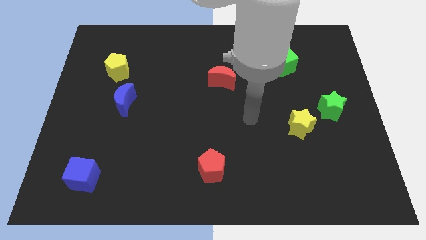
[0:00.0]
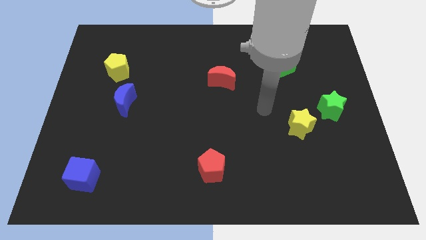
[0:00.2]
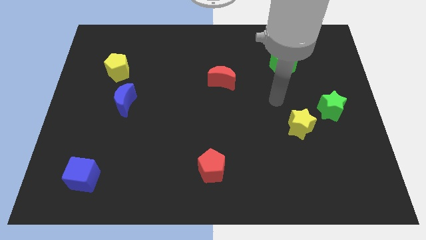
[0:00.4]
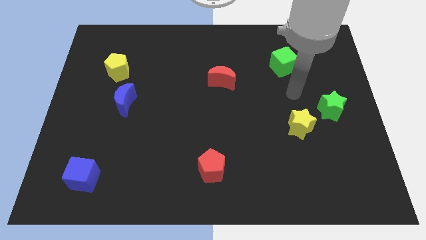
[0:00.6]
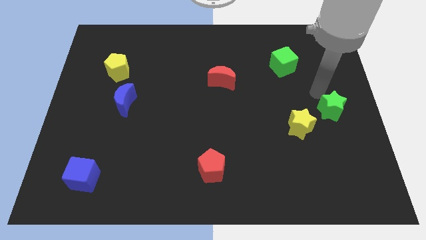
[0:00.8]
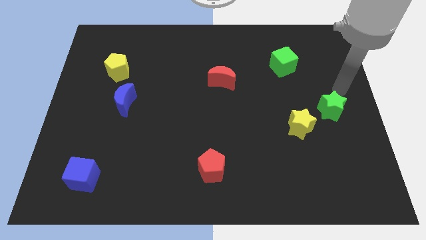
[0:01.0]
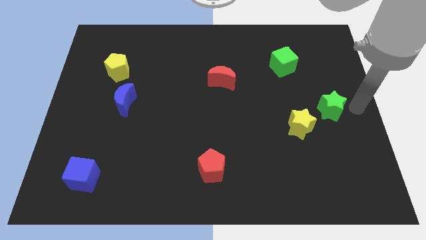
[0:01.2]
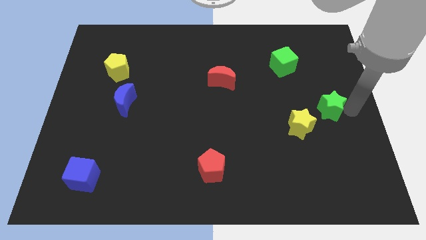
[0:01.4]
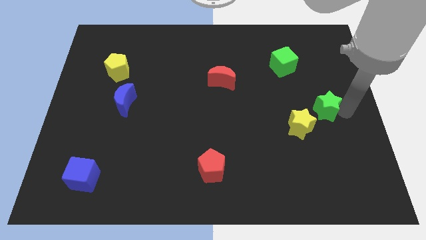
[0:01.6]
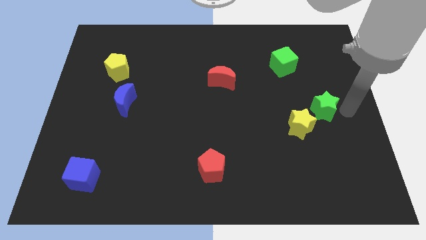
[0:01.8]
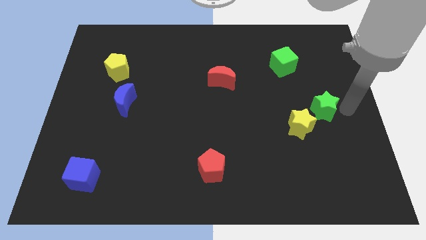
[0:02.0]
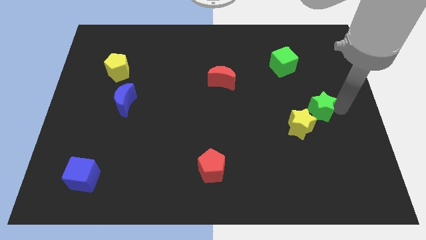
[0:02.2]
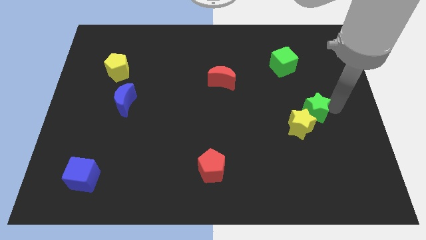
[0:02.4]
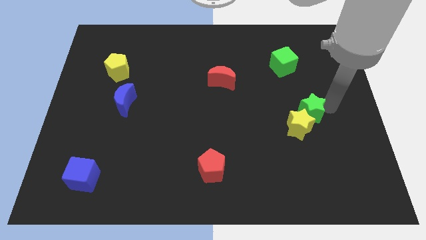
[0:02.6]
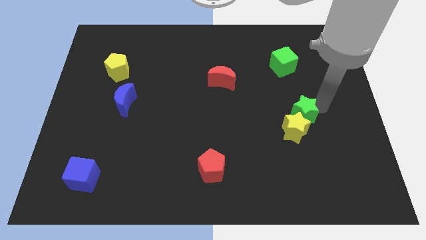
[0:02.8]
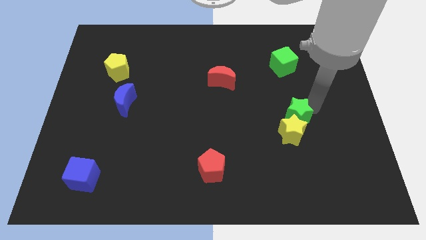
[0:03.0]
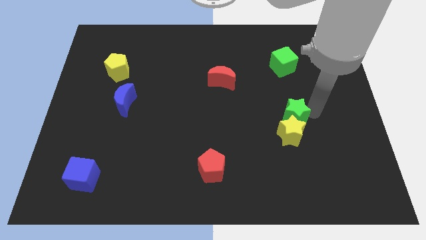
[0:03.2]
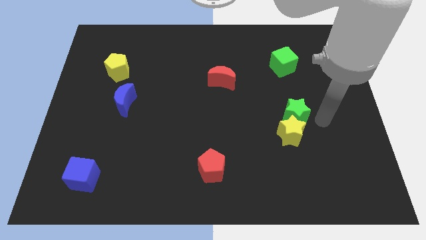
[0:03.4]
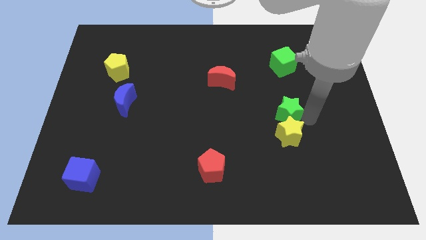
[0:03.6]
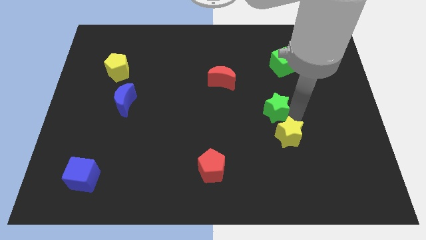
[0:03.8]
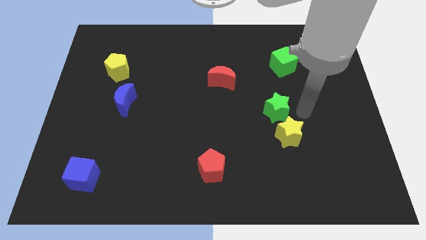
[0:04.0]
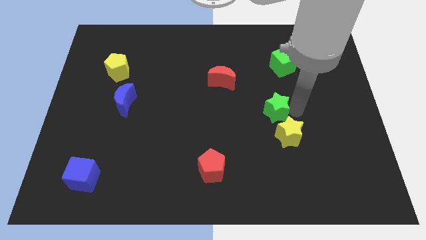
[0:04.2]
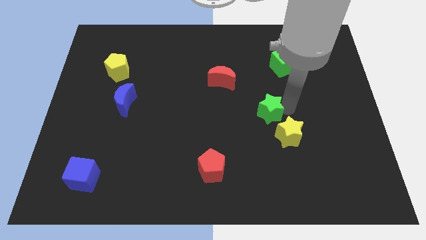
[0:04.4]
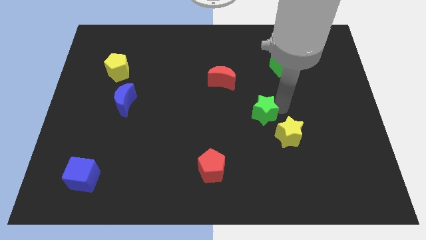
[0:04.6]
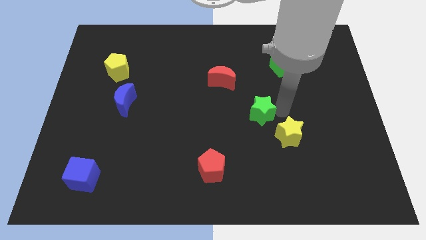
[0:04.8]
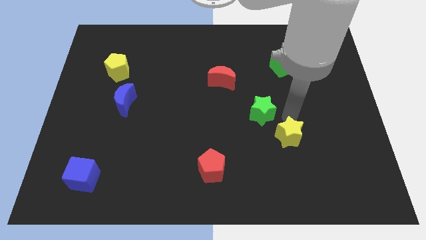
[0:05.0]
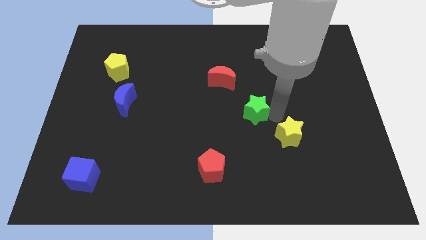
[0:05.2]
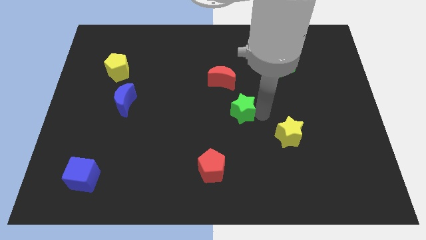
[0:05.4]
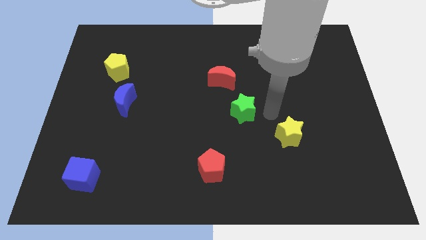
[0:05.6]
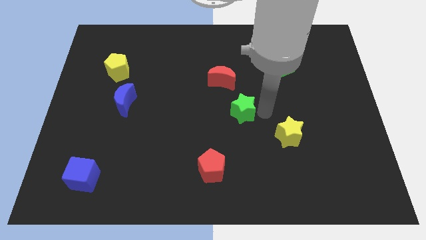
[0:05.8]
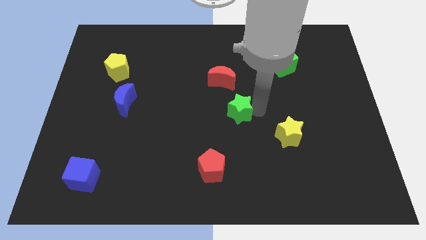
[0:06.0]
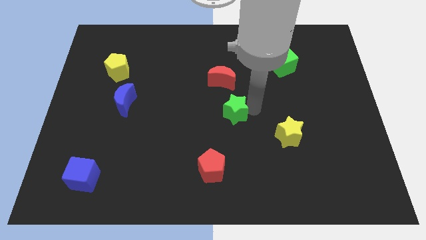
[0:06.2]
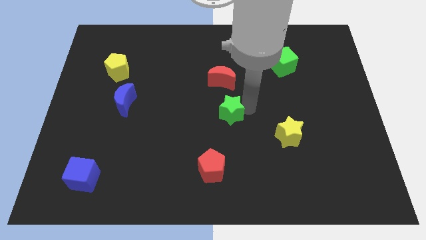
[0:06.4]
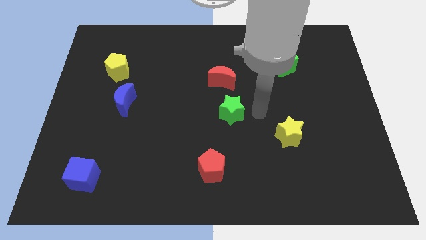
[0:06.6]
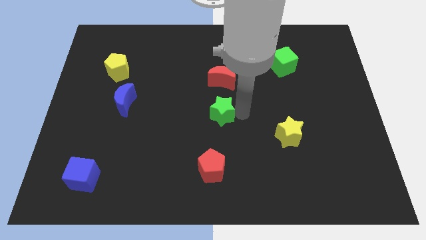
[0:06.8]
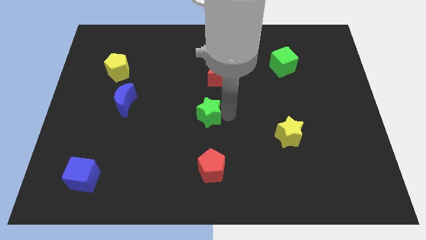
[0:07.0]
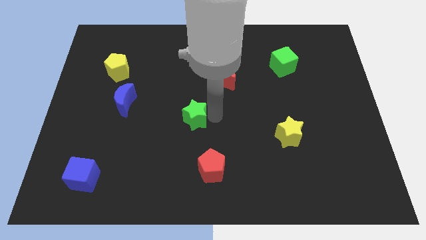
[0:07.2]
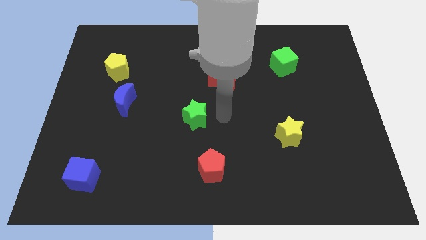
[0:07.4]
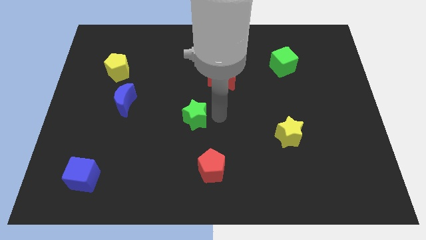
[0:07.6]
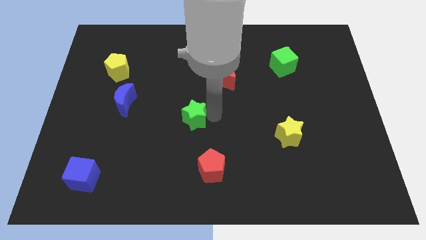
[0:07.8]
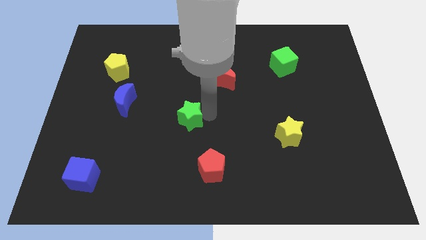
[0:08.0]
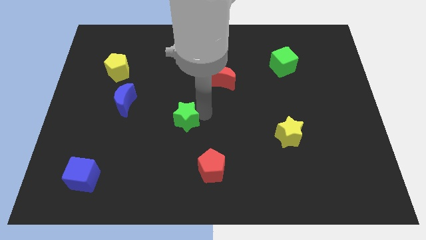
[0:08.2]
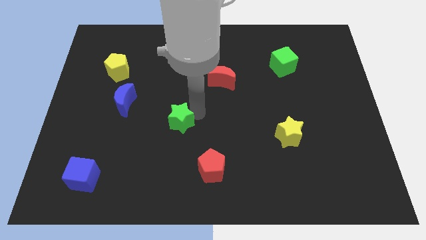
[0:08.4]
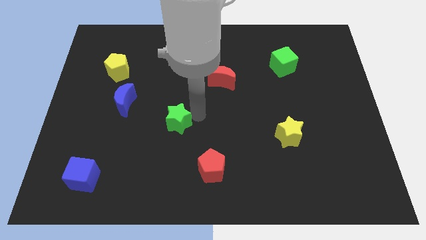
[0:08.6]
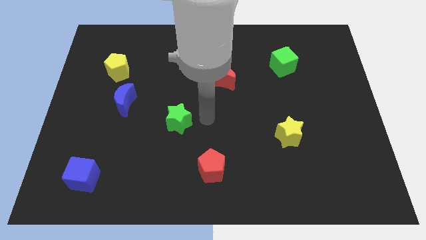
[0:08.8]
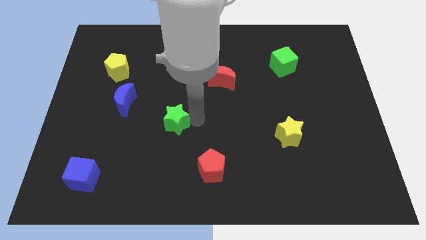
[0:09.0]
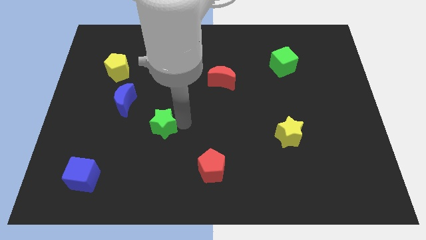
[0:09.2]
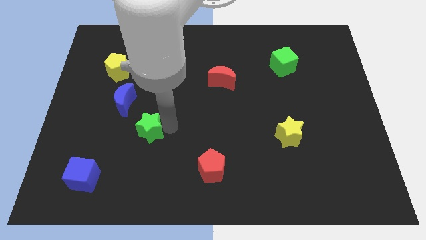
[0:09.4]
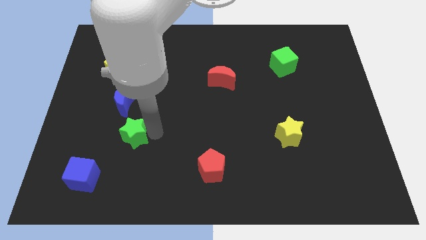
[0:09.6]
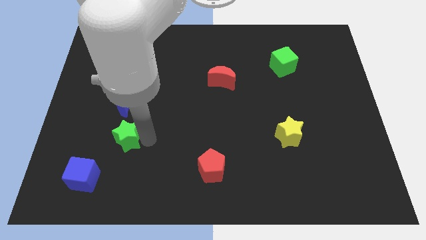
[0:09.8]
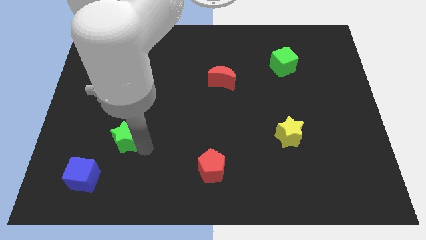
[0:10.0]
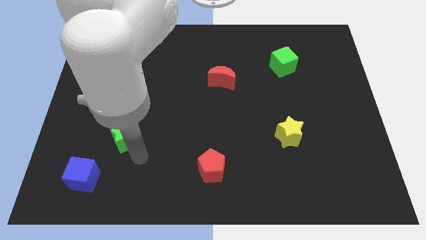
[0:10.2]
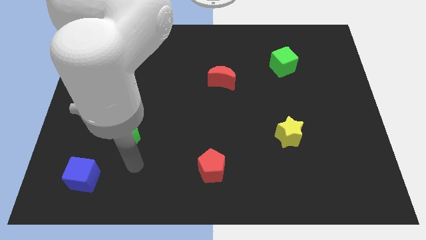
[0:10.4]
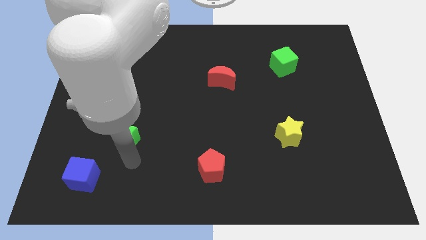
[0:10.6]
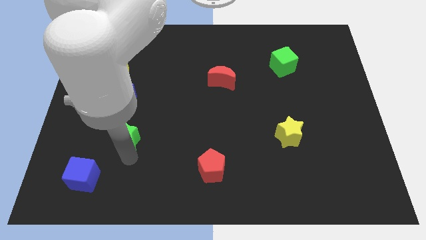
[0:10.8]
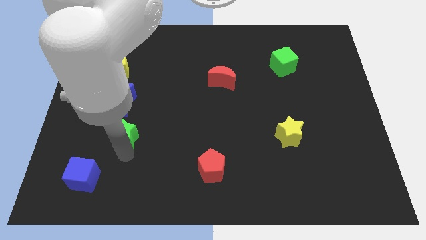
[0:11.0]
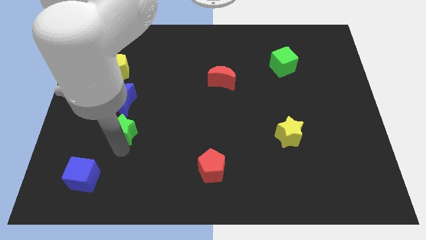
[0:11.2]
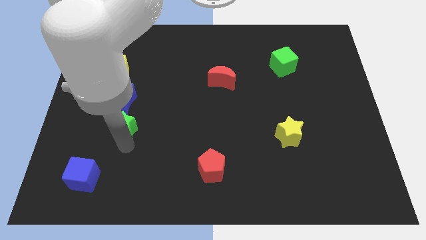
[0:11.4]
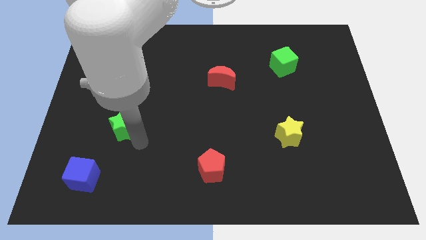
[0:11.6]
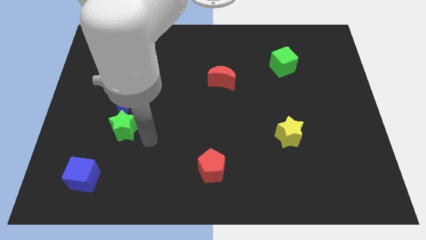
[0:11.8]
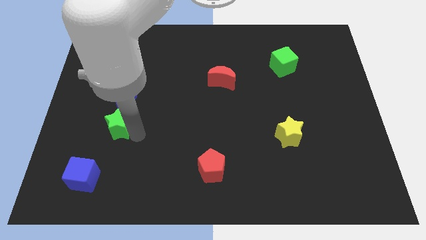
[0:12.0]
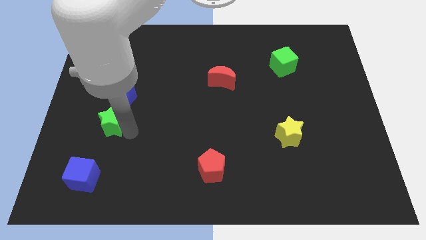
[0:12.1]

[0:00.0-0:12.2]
push the green star to the bottom left side of the blue moon

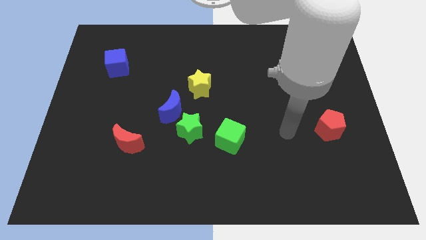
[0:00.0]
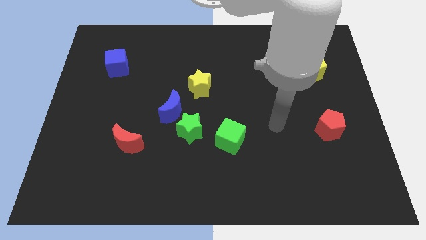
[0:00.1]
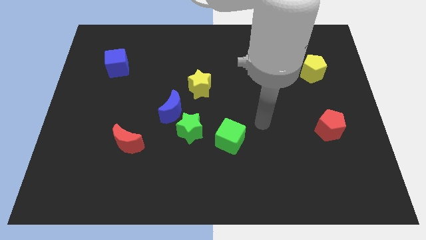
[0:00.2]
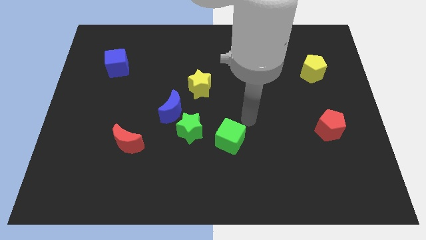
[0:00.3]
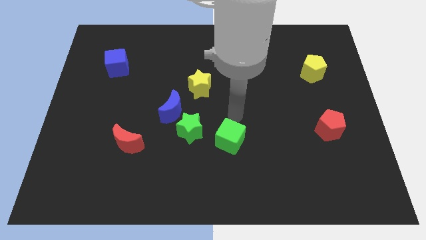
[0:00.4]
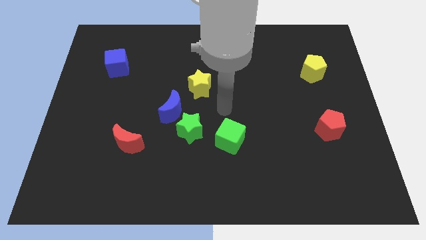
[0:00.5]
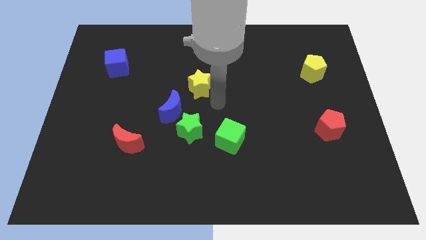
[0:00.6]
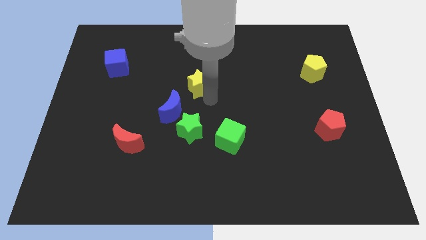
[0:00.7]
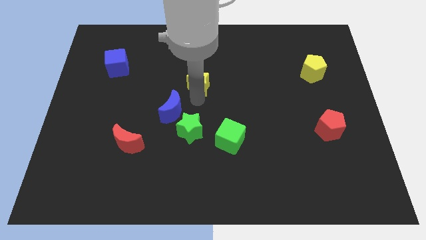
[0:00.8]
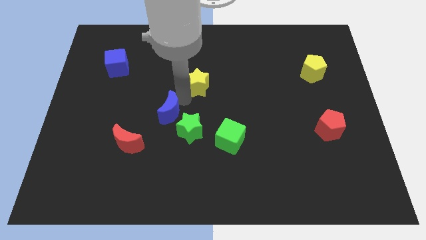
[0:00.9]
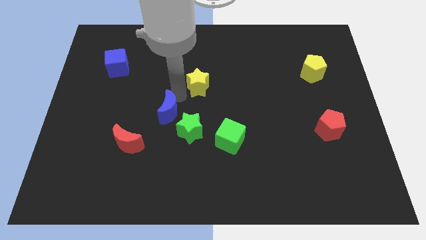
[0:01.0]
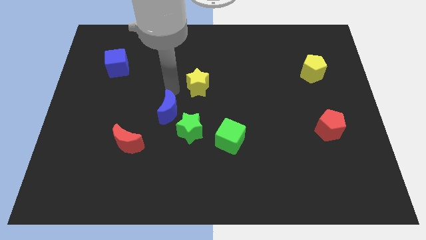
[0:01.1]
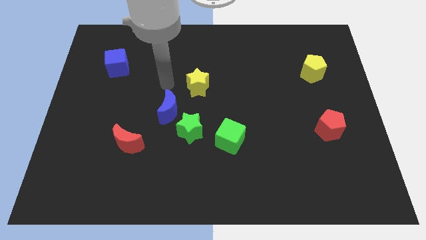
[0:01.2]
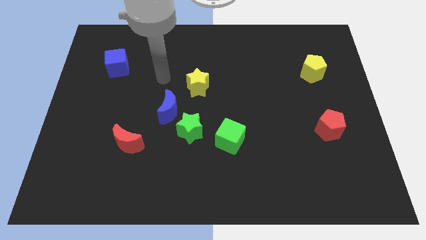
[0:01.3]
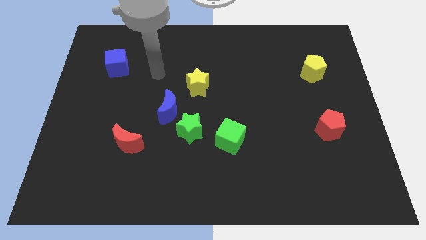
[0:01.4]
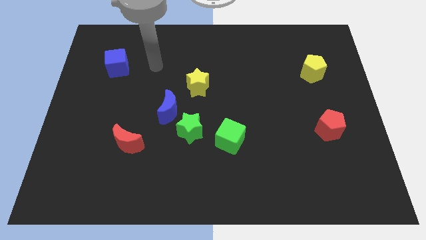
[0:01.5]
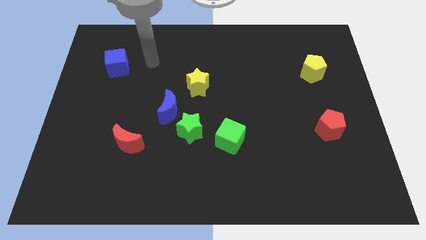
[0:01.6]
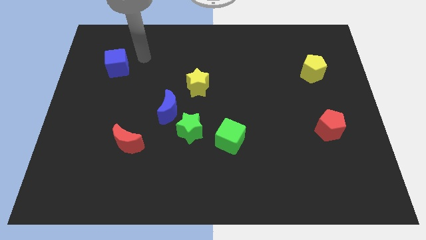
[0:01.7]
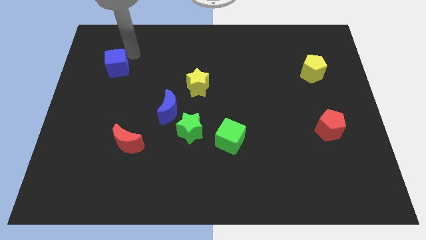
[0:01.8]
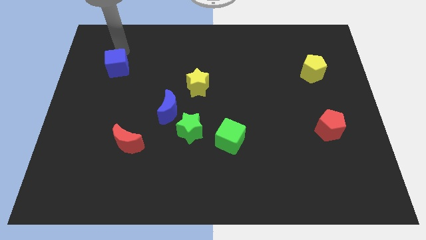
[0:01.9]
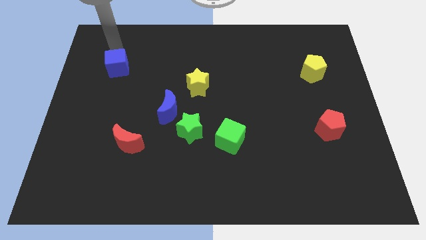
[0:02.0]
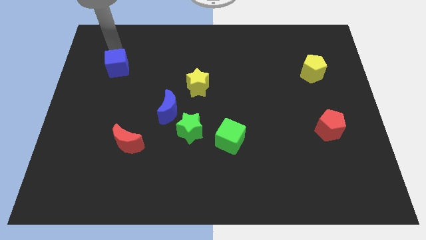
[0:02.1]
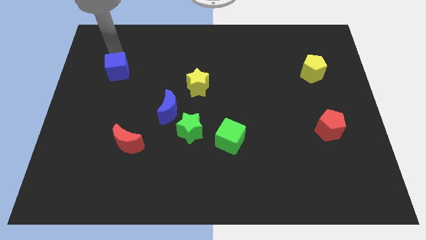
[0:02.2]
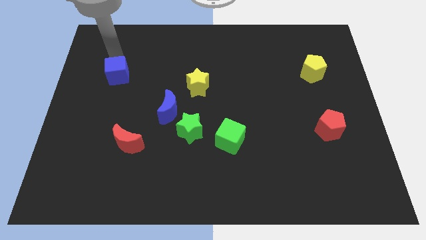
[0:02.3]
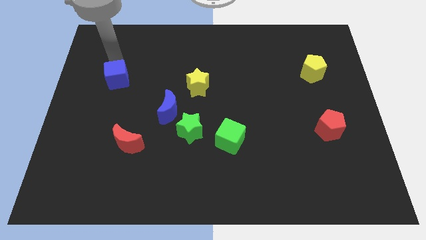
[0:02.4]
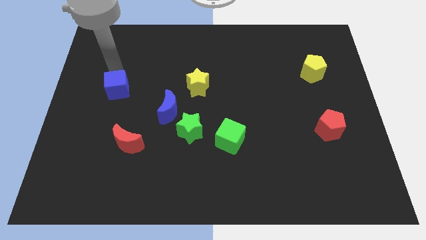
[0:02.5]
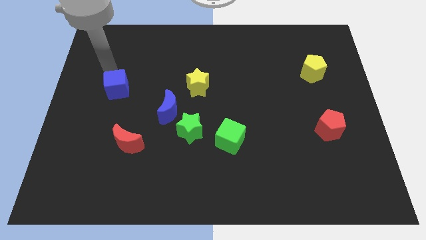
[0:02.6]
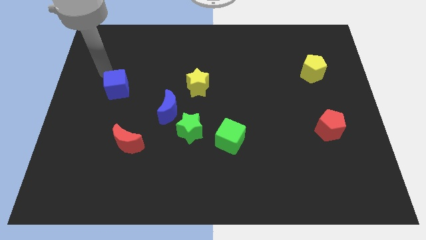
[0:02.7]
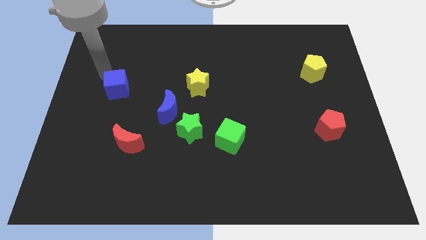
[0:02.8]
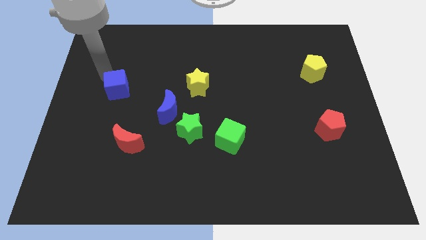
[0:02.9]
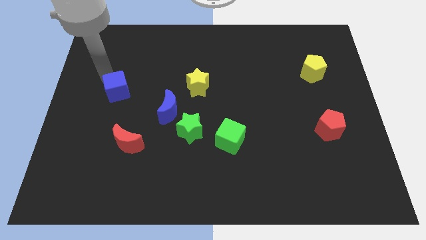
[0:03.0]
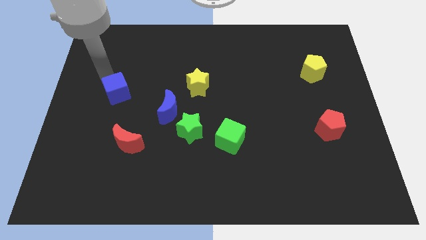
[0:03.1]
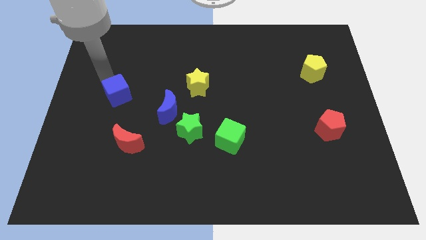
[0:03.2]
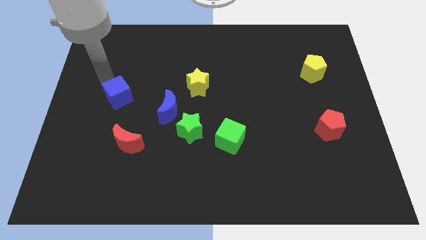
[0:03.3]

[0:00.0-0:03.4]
push the blue cube to the top side of the red moon
